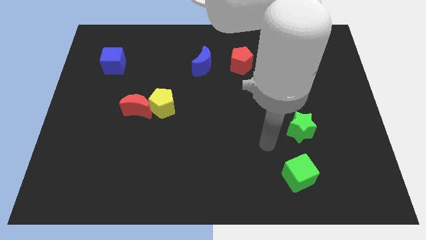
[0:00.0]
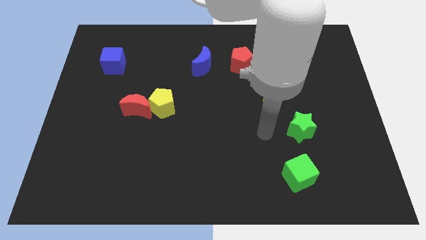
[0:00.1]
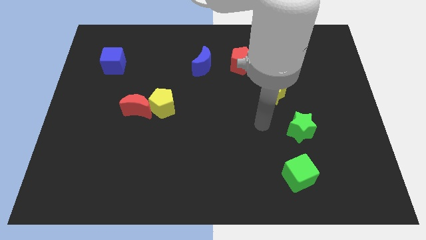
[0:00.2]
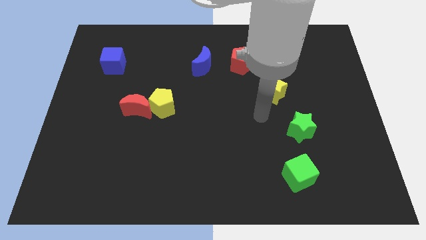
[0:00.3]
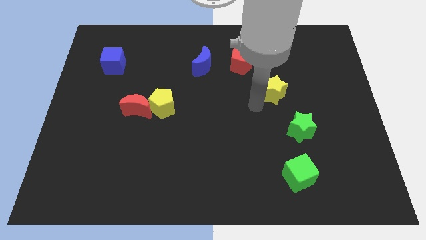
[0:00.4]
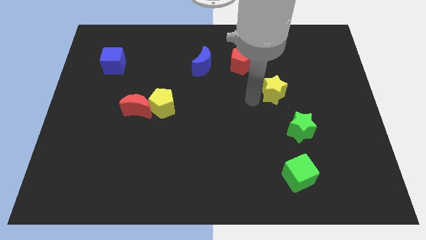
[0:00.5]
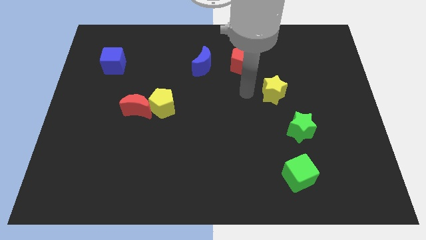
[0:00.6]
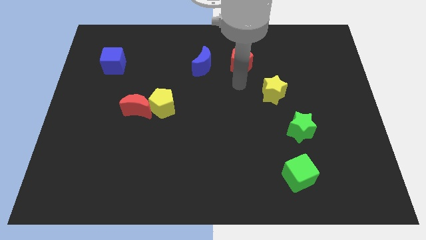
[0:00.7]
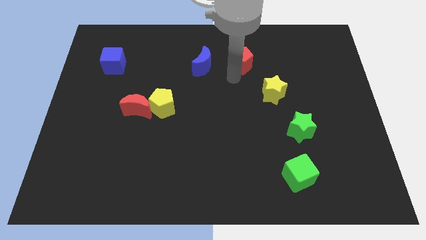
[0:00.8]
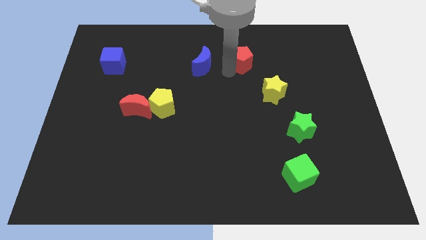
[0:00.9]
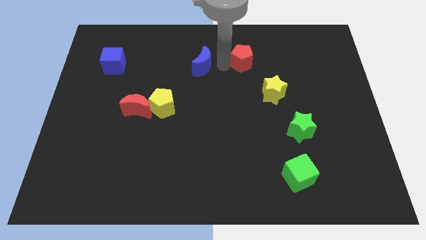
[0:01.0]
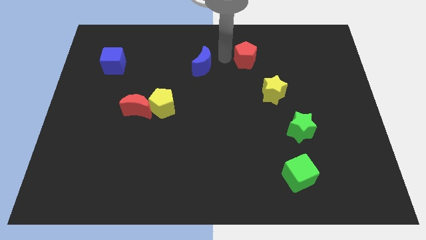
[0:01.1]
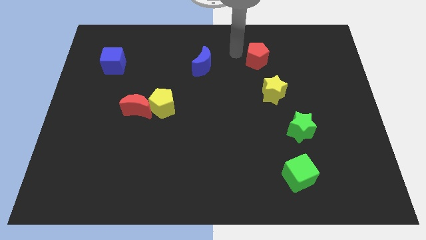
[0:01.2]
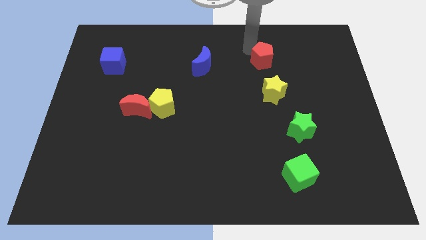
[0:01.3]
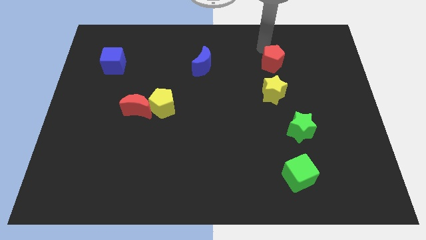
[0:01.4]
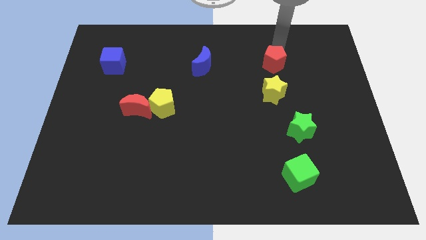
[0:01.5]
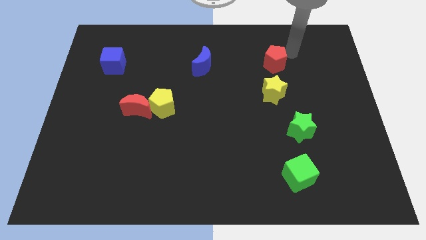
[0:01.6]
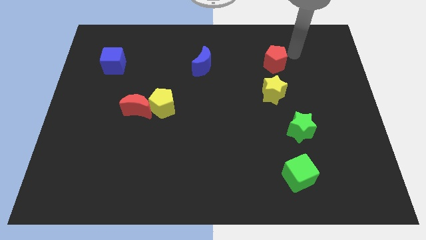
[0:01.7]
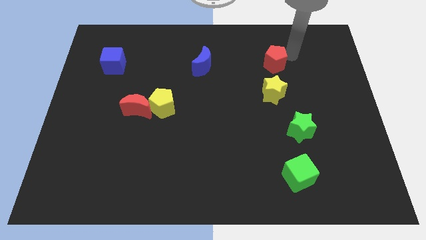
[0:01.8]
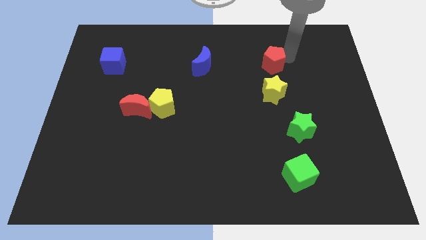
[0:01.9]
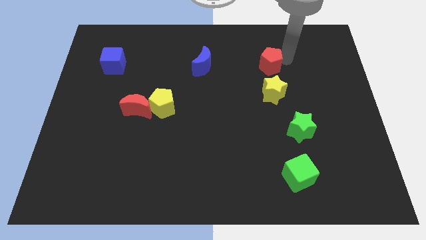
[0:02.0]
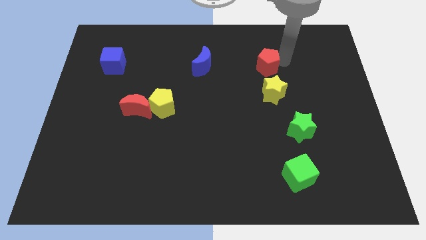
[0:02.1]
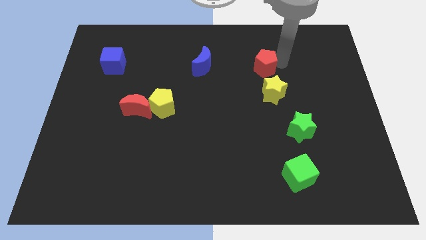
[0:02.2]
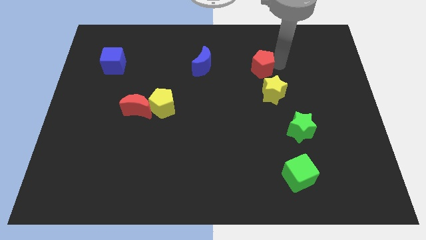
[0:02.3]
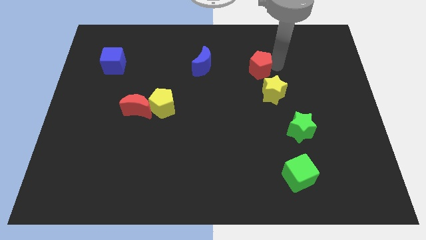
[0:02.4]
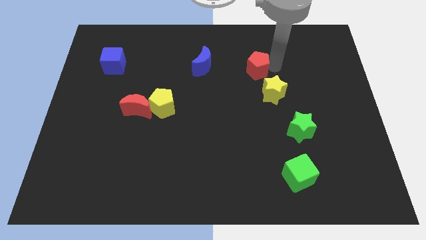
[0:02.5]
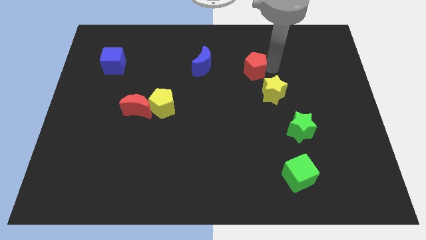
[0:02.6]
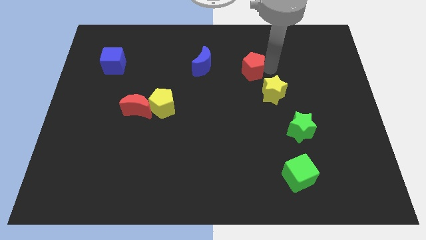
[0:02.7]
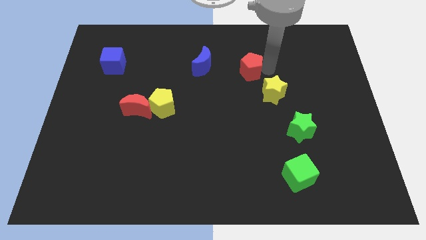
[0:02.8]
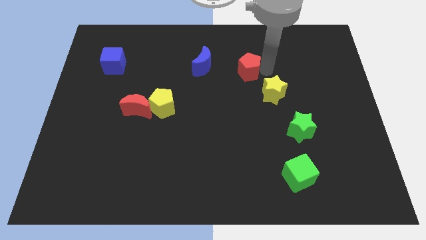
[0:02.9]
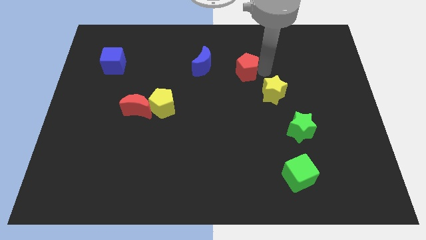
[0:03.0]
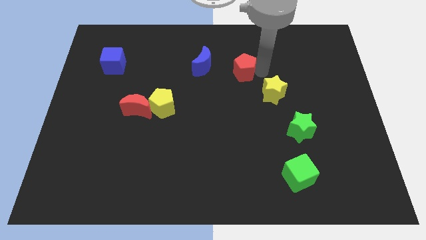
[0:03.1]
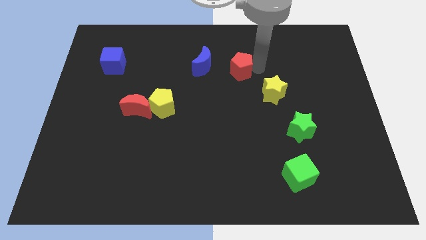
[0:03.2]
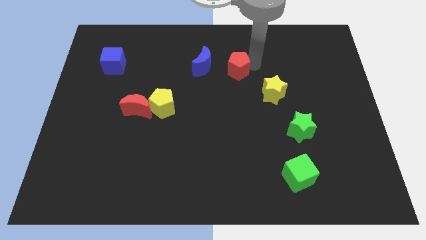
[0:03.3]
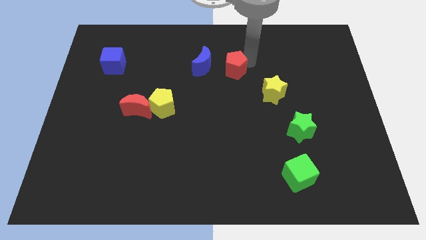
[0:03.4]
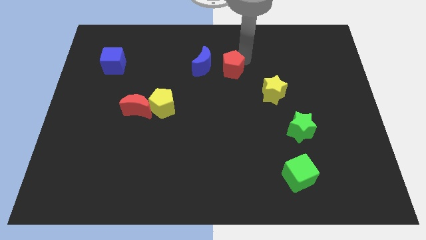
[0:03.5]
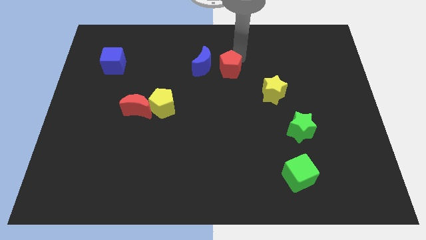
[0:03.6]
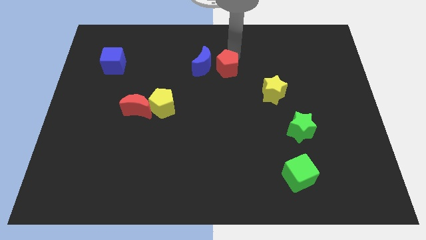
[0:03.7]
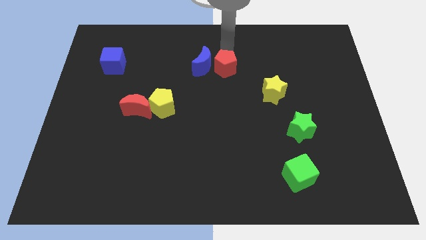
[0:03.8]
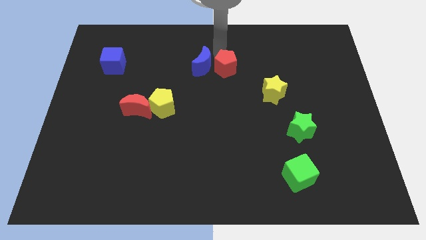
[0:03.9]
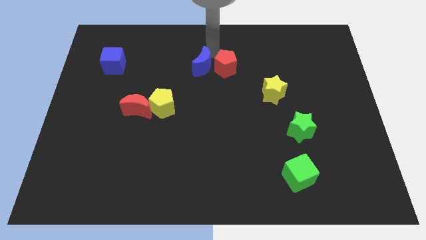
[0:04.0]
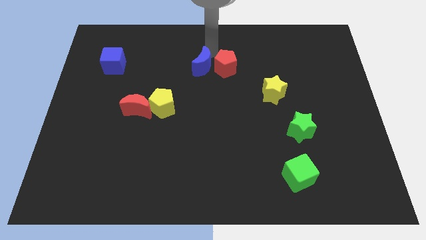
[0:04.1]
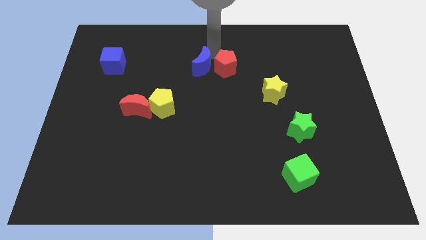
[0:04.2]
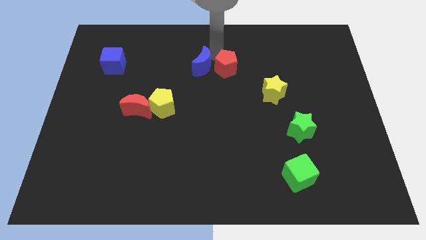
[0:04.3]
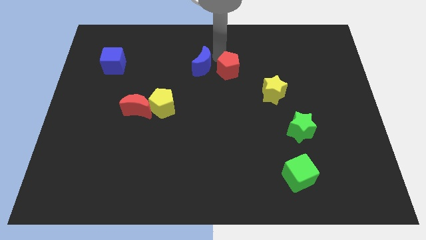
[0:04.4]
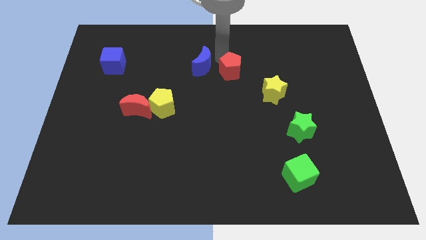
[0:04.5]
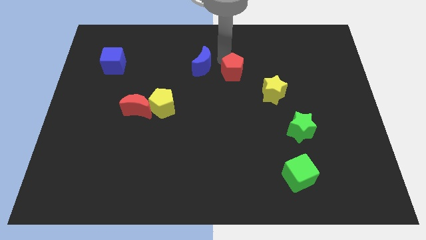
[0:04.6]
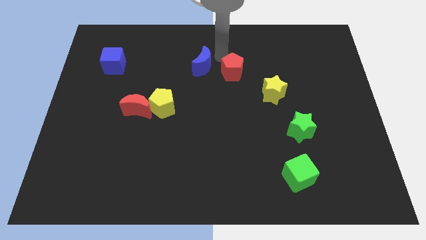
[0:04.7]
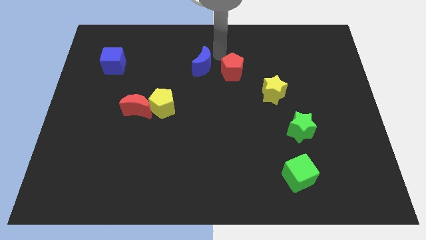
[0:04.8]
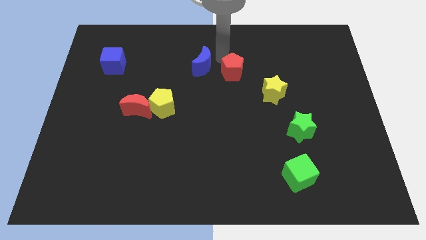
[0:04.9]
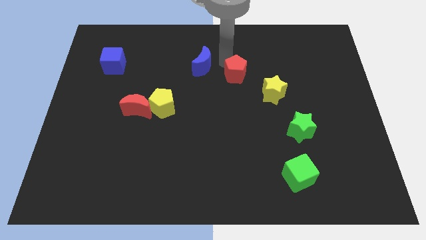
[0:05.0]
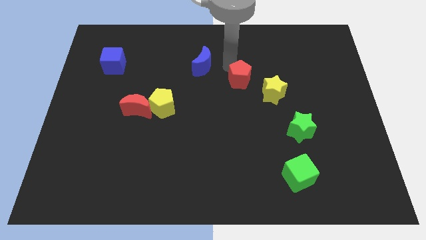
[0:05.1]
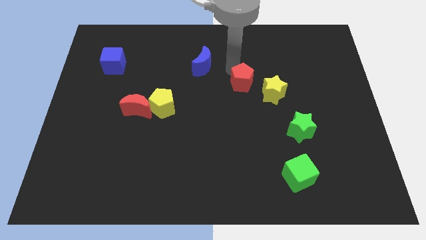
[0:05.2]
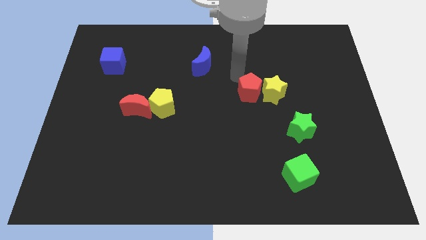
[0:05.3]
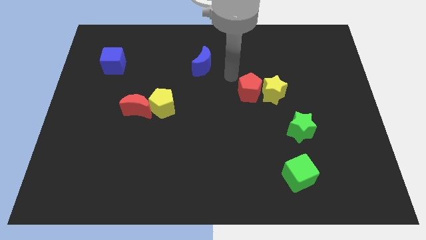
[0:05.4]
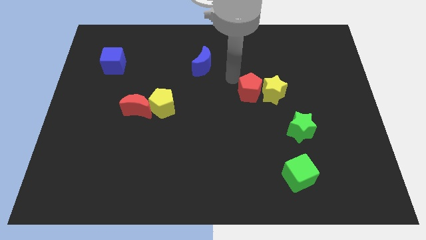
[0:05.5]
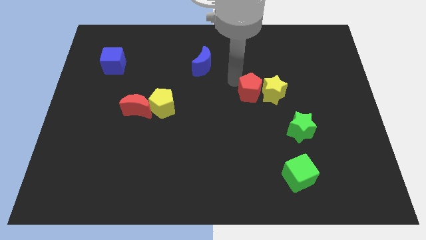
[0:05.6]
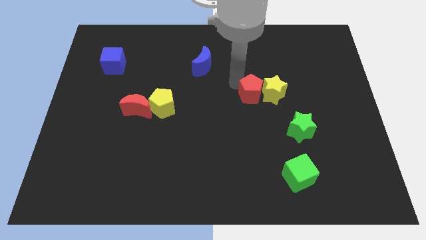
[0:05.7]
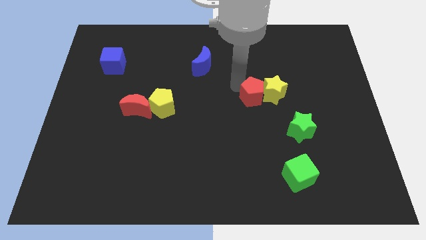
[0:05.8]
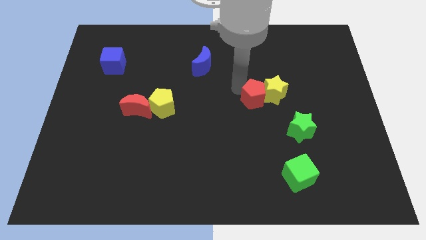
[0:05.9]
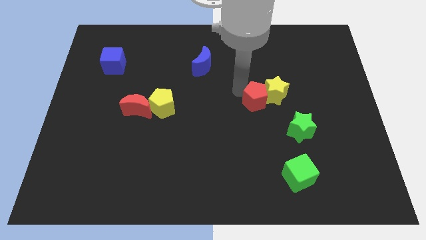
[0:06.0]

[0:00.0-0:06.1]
move the red pentagon to the top left side of the green star
